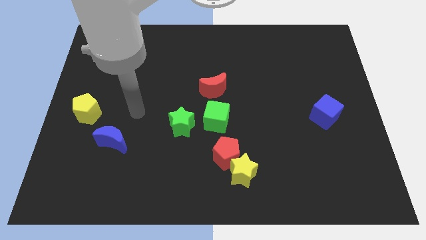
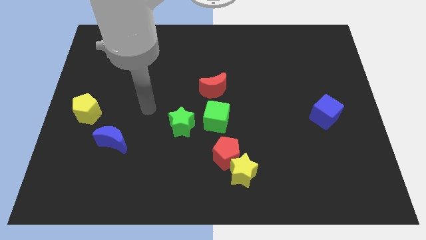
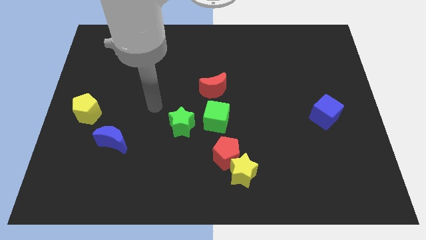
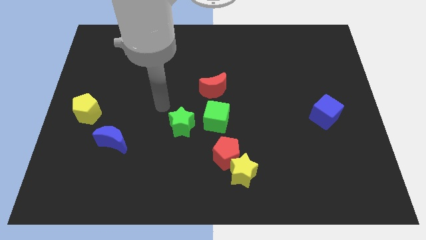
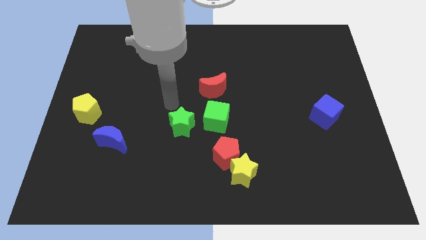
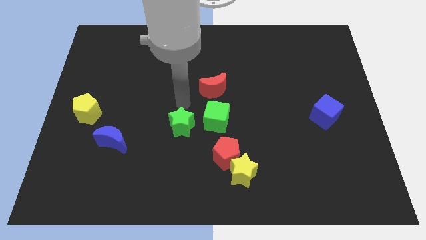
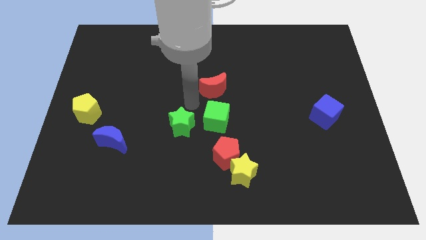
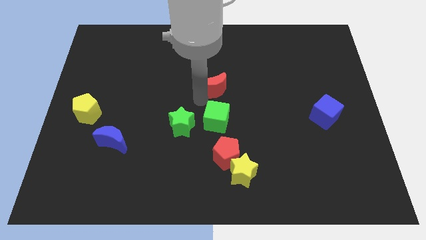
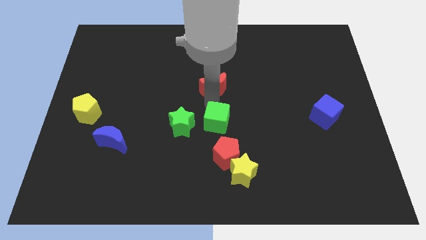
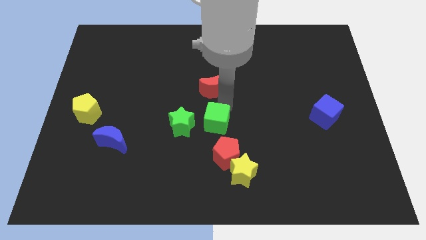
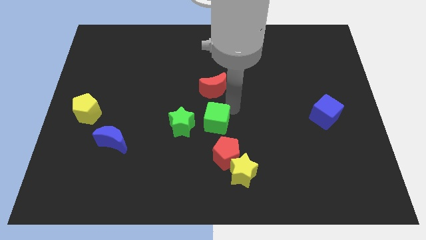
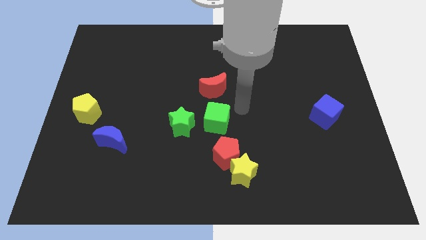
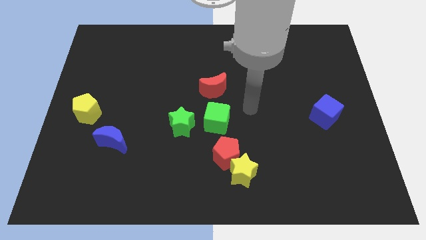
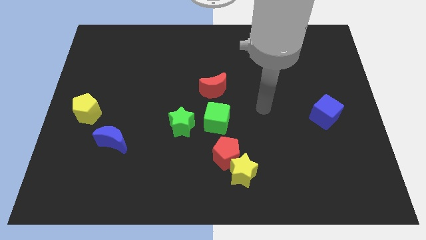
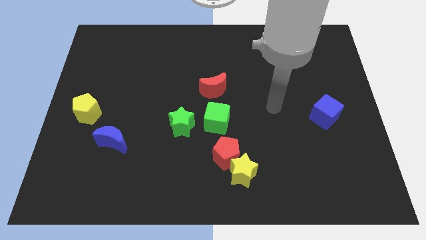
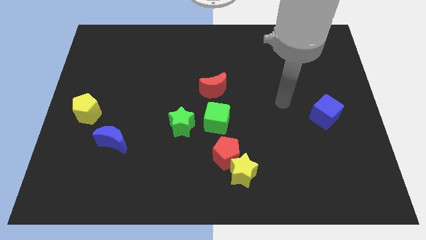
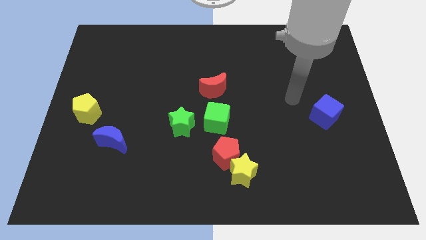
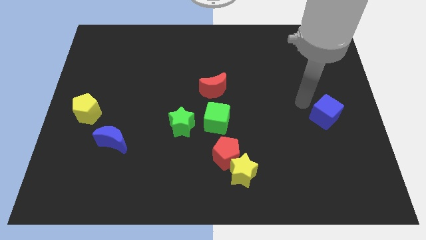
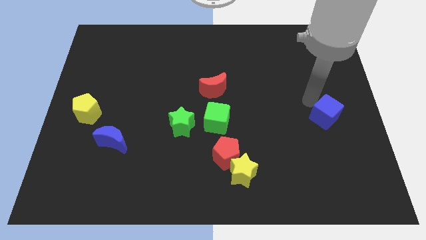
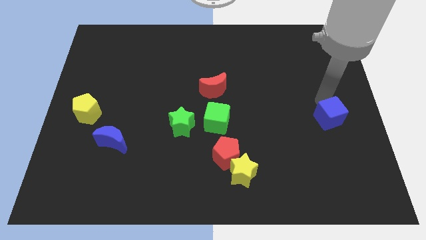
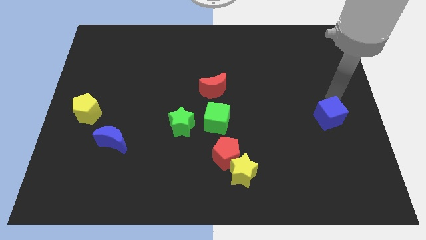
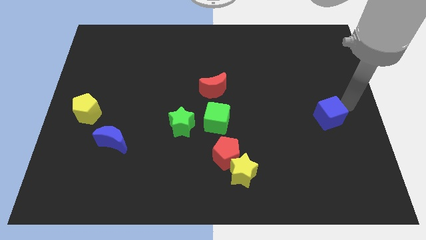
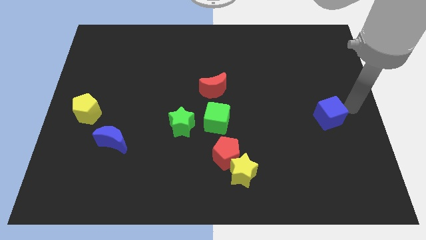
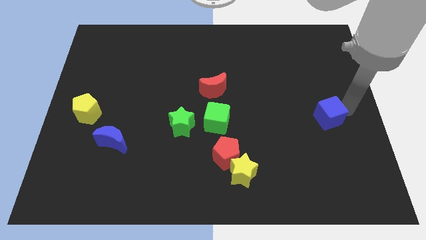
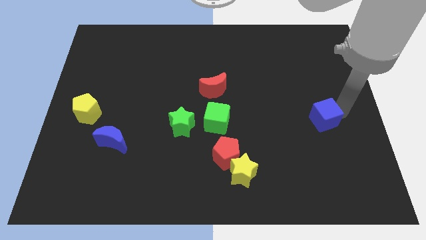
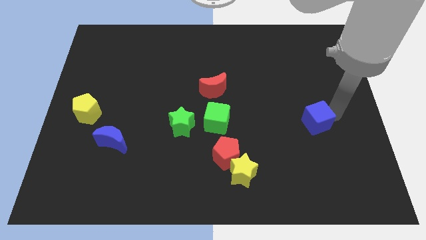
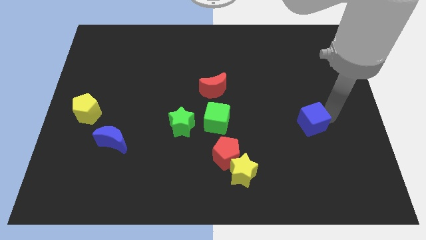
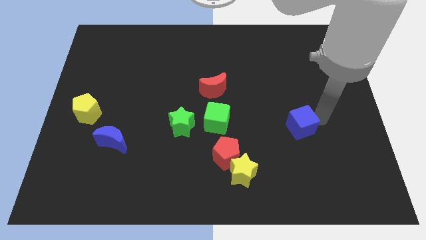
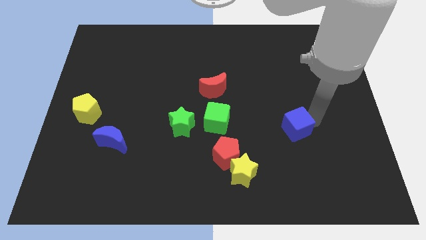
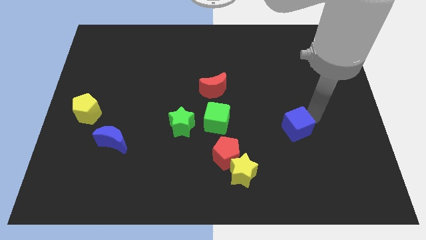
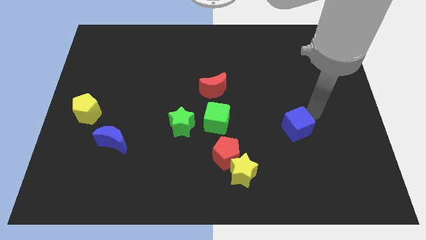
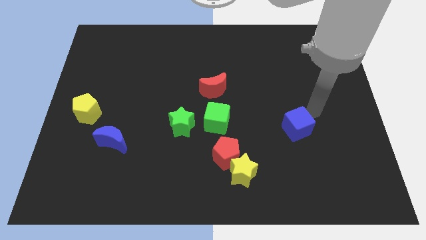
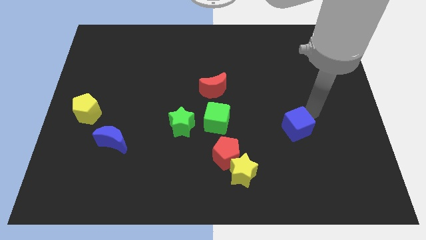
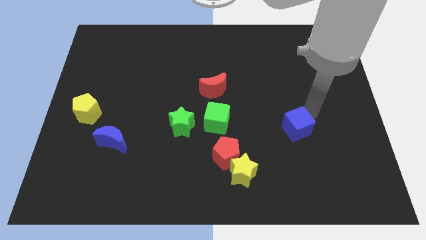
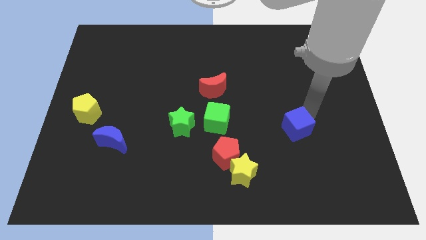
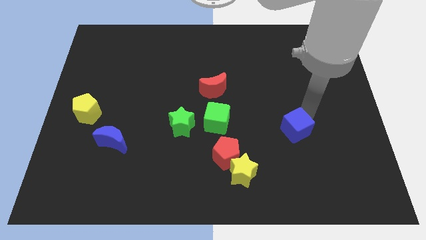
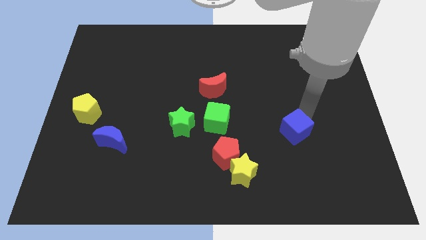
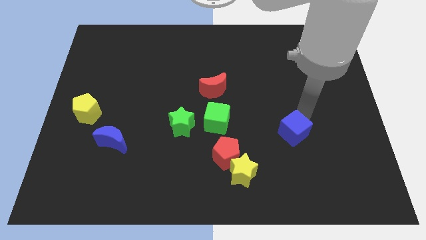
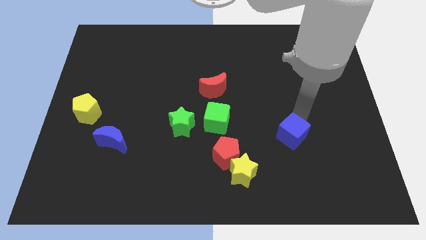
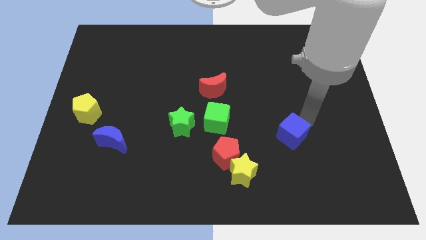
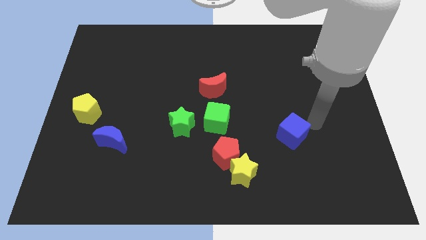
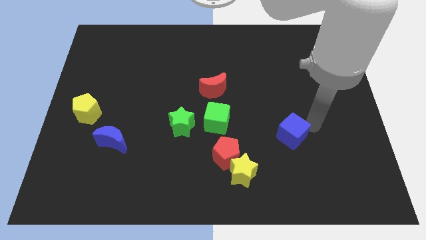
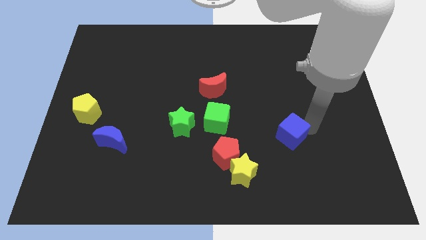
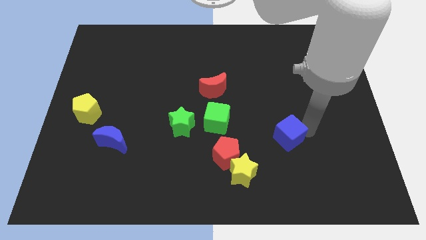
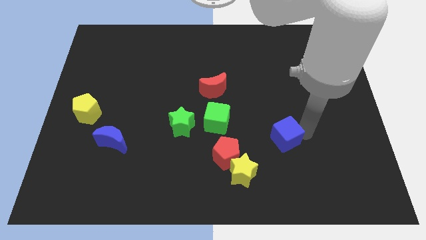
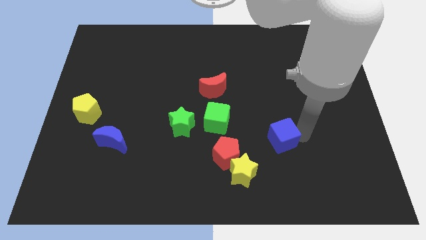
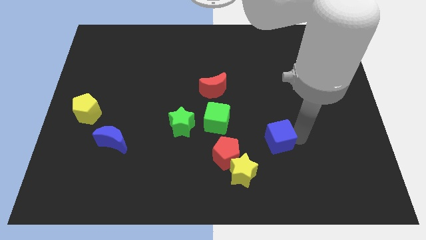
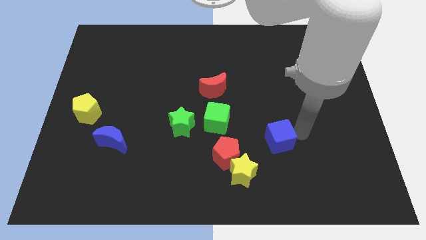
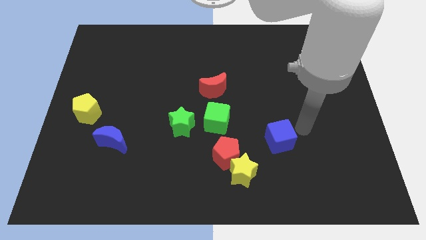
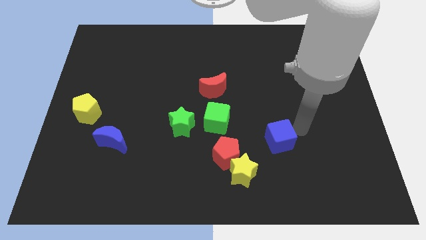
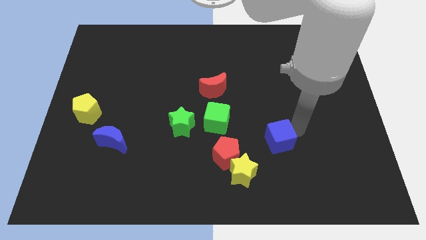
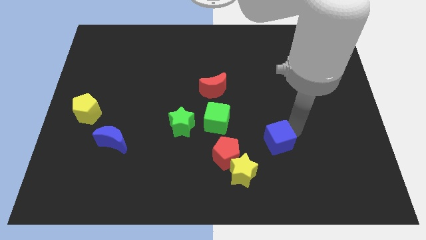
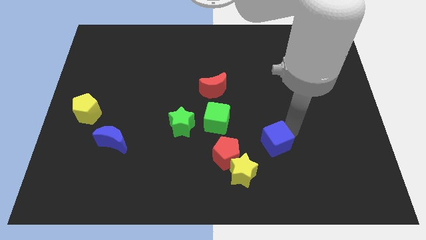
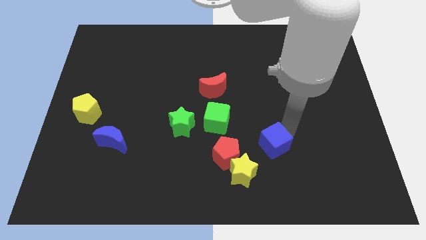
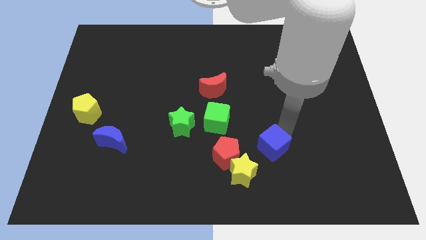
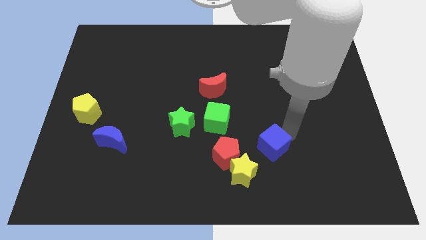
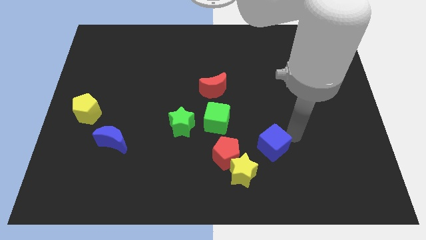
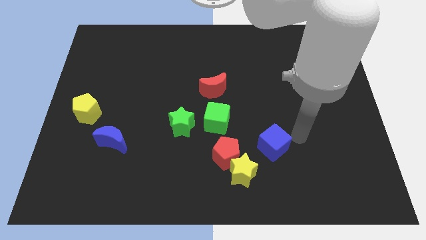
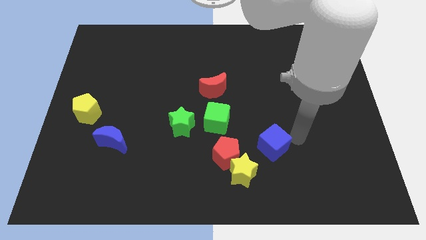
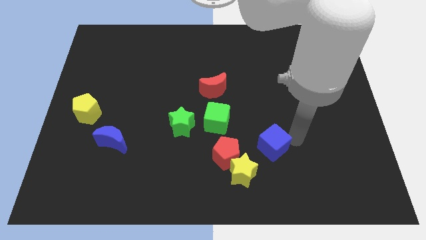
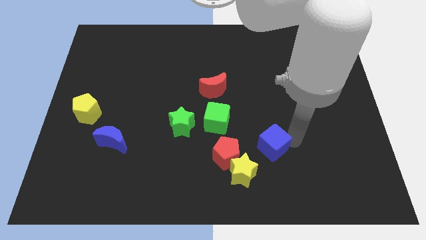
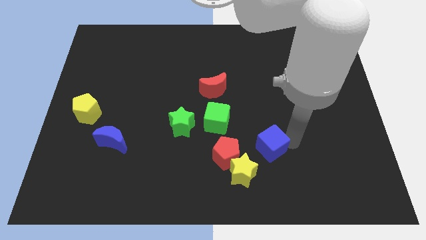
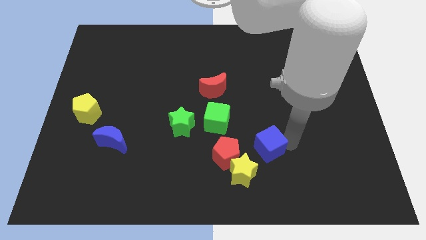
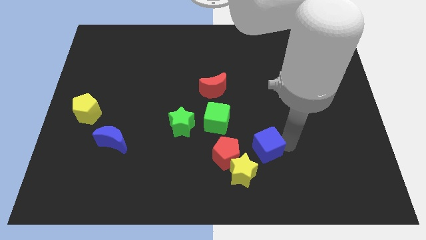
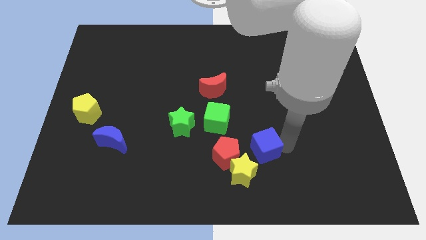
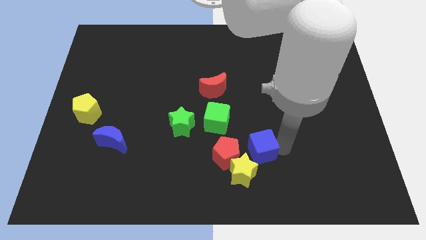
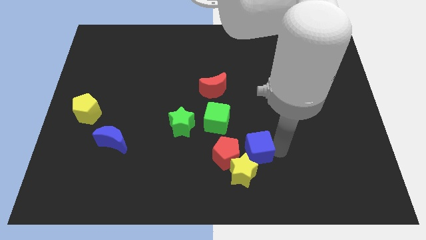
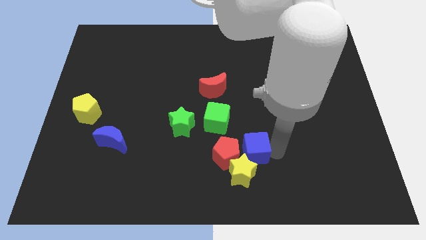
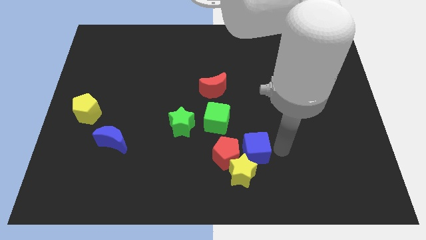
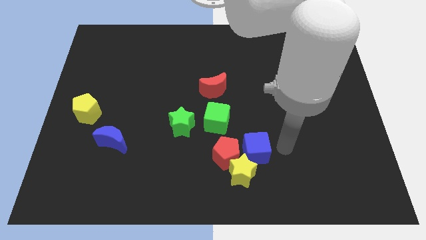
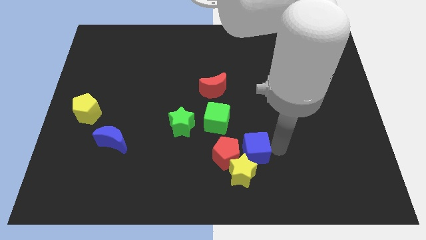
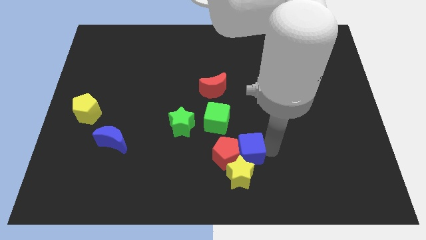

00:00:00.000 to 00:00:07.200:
push the blue cube close to the red pentagon

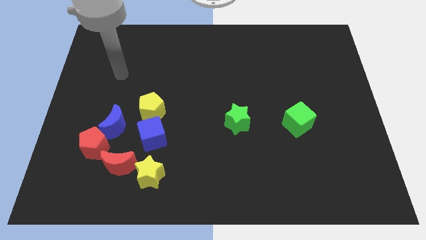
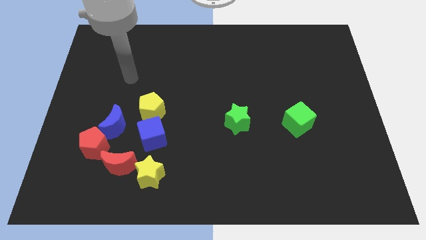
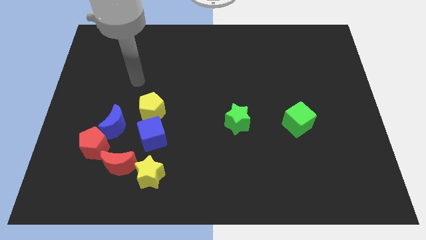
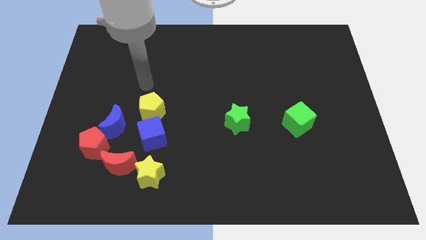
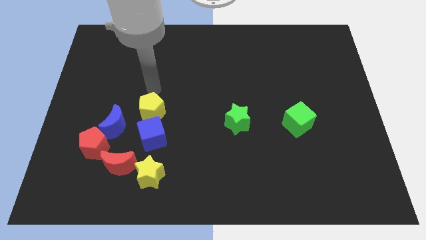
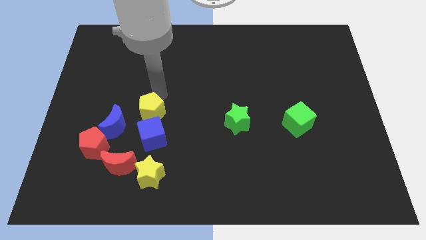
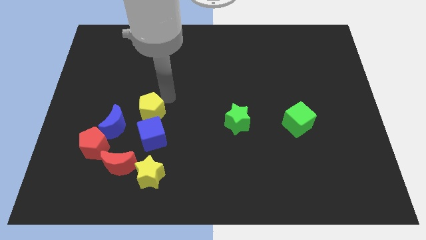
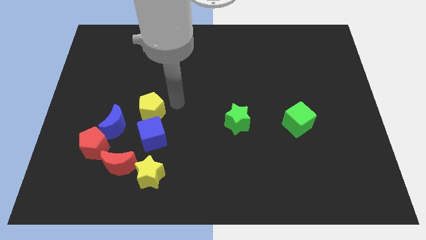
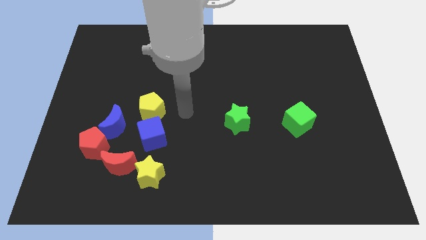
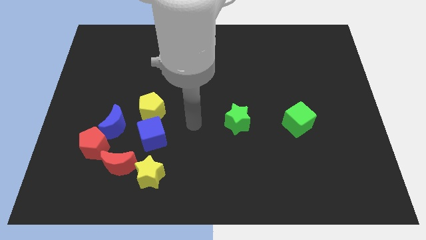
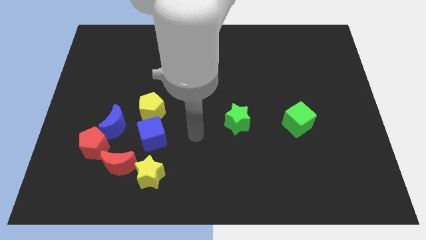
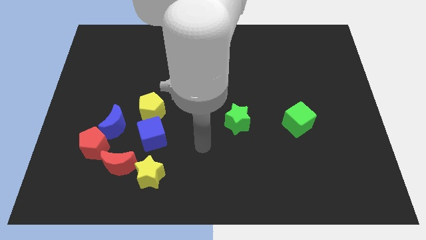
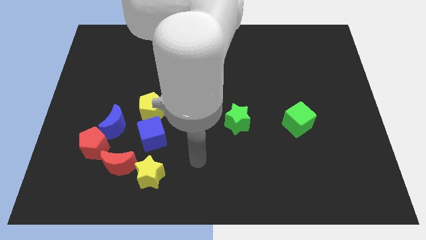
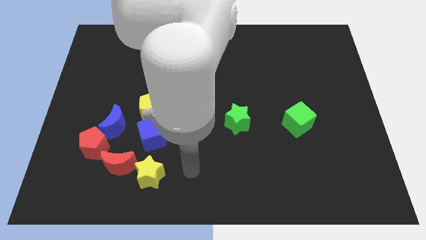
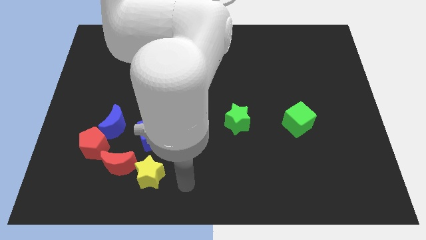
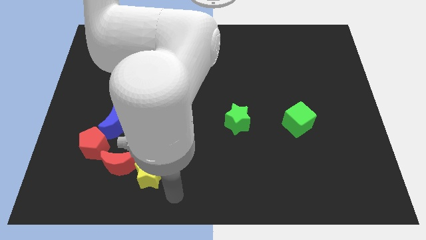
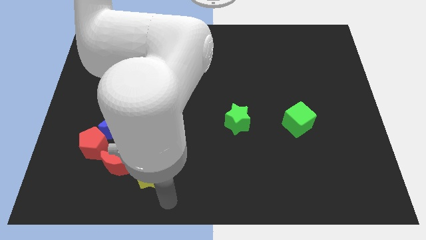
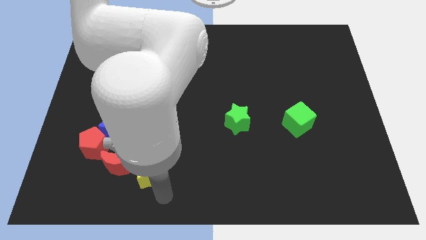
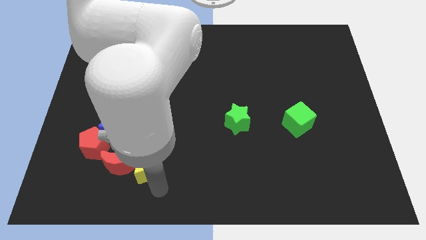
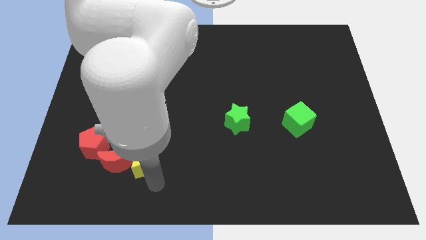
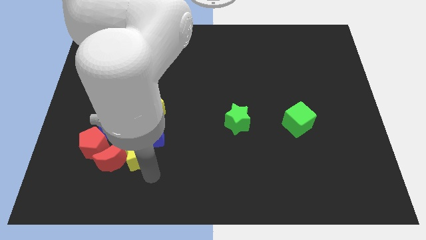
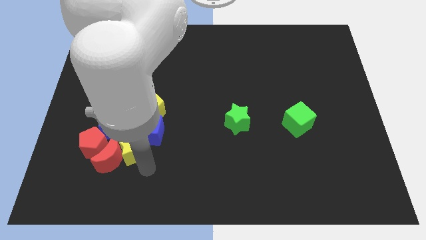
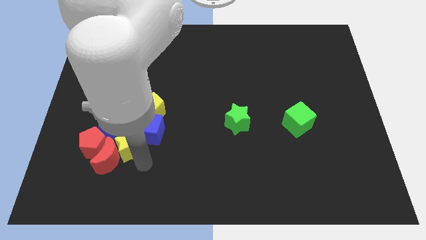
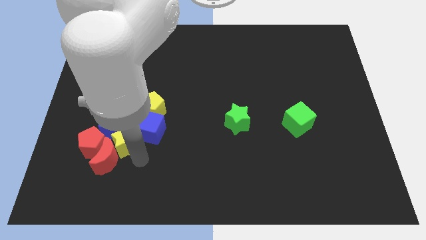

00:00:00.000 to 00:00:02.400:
push the yellow star towards the blue moon
